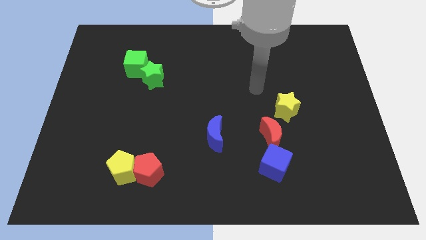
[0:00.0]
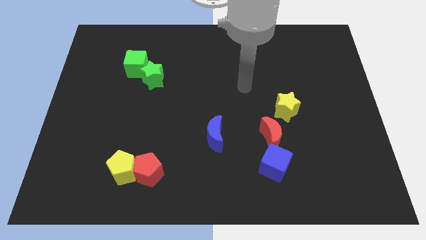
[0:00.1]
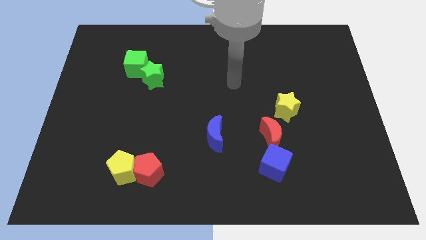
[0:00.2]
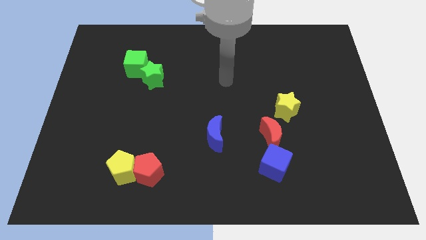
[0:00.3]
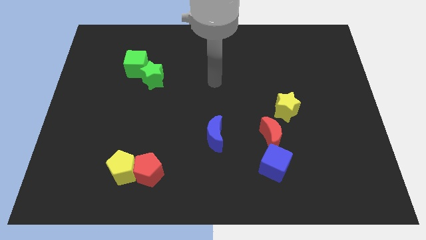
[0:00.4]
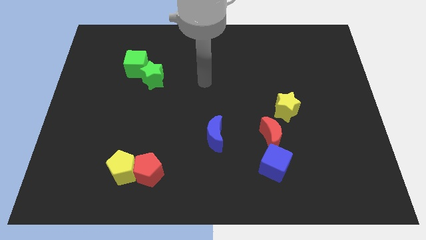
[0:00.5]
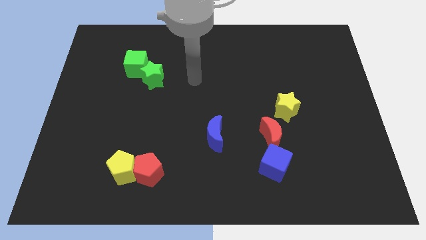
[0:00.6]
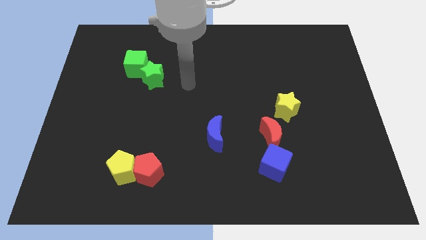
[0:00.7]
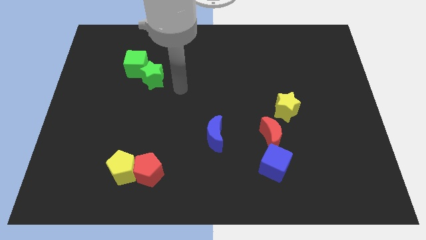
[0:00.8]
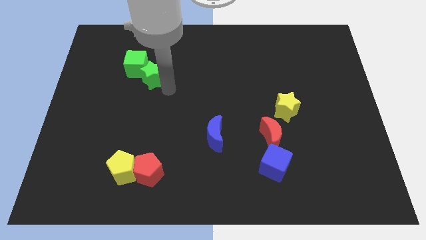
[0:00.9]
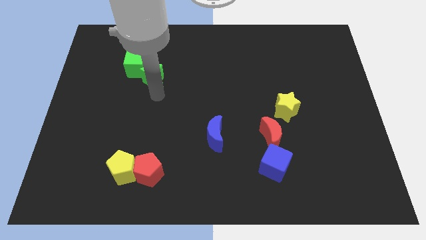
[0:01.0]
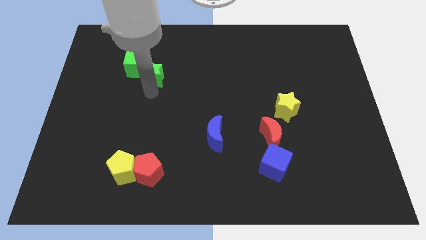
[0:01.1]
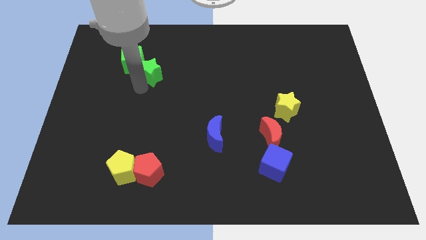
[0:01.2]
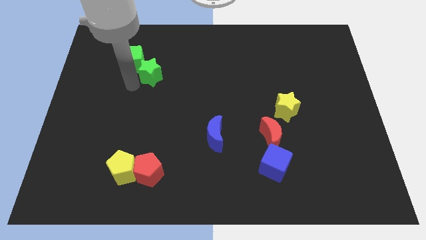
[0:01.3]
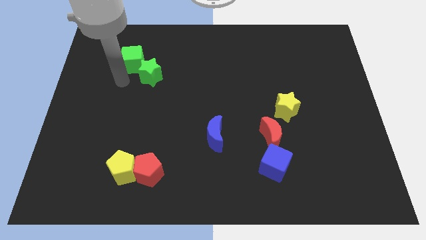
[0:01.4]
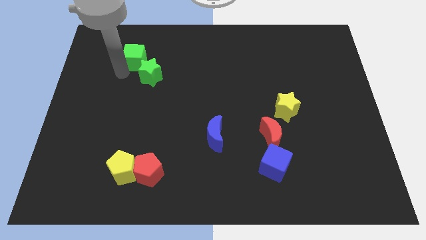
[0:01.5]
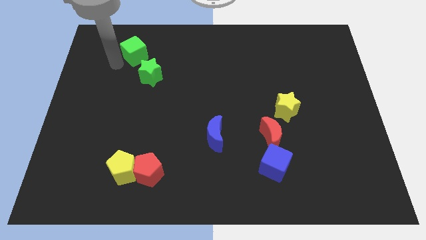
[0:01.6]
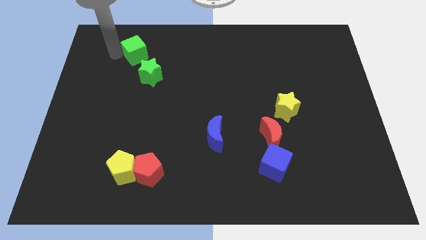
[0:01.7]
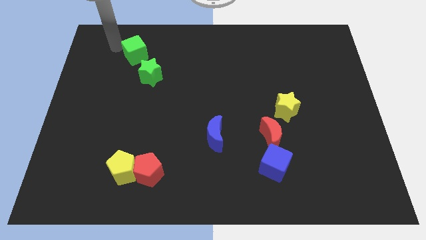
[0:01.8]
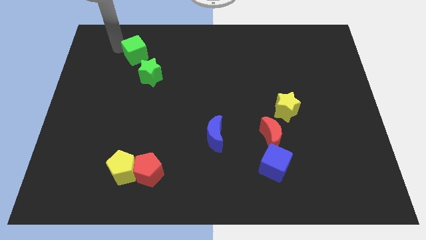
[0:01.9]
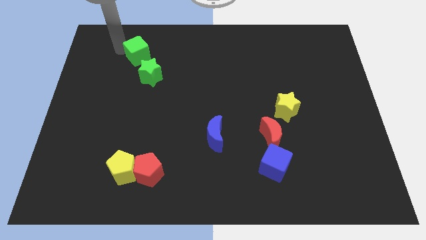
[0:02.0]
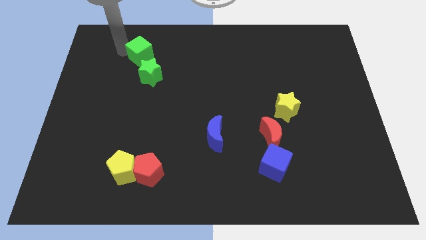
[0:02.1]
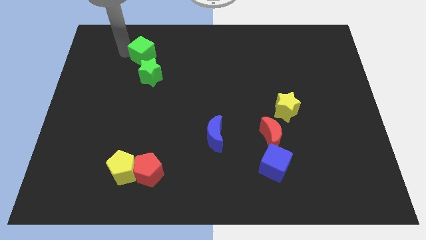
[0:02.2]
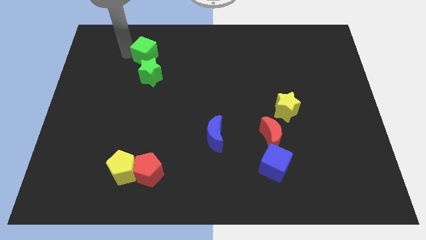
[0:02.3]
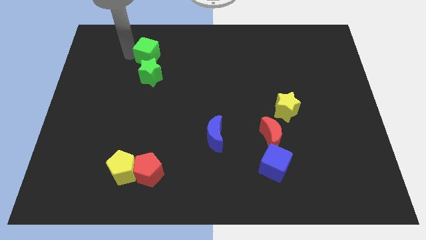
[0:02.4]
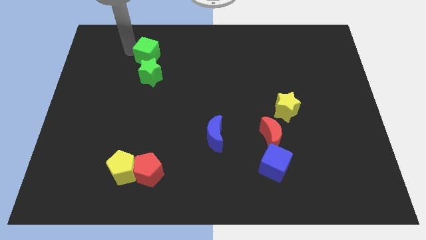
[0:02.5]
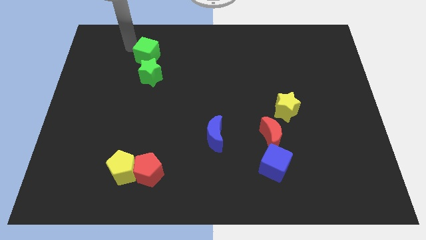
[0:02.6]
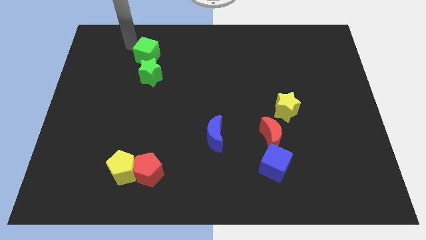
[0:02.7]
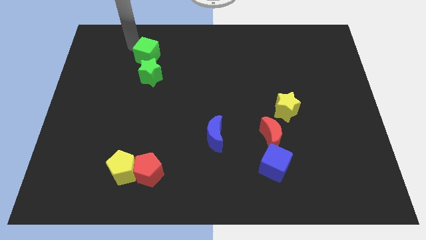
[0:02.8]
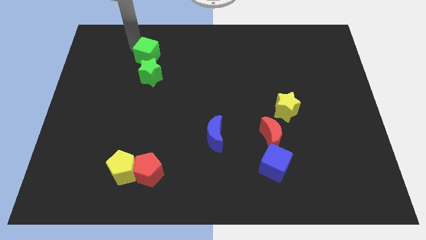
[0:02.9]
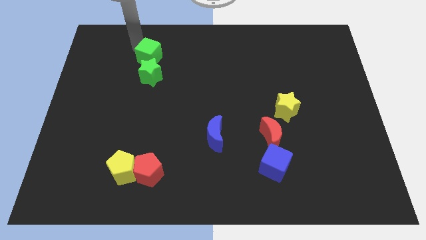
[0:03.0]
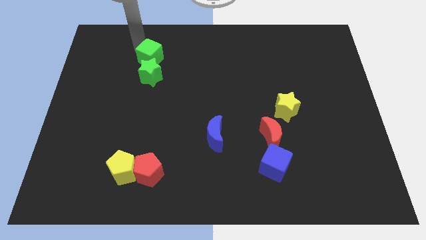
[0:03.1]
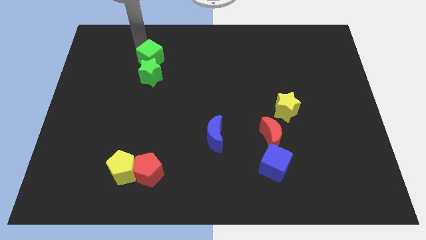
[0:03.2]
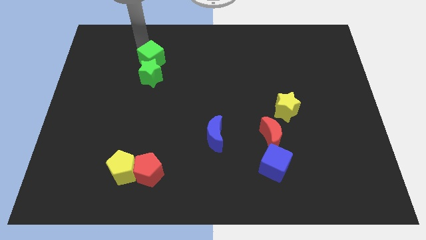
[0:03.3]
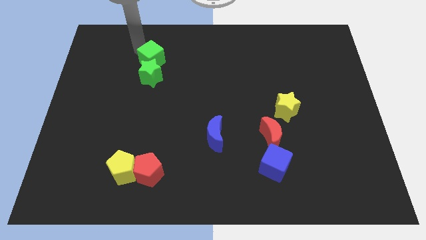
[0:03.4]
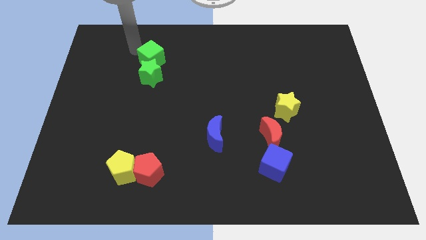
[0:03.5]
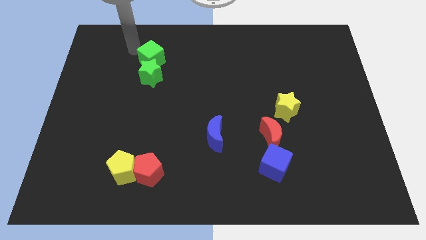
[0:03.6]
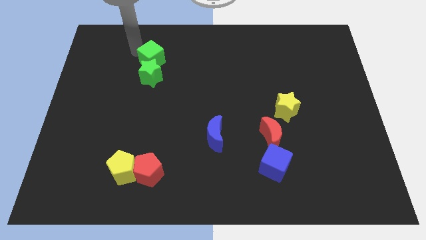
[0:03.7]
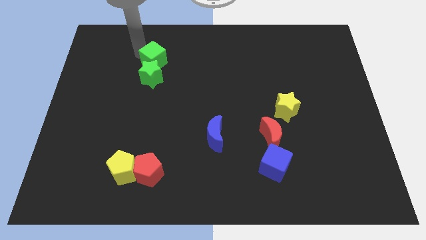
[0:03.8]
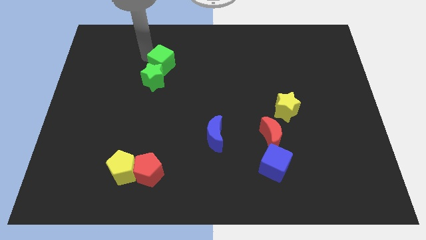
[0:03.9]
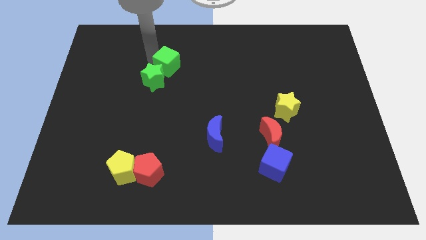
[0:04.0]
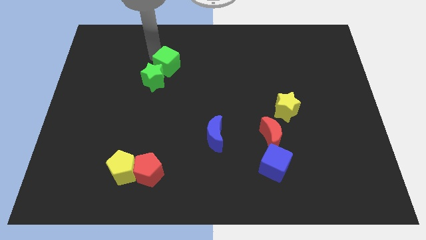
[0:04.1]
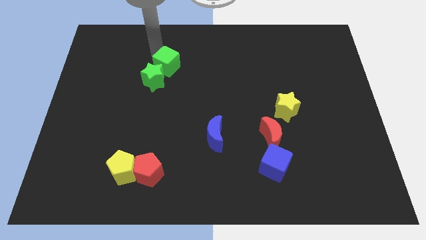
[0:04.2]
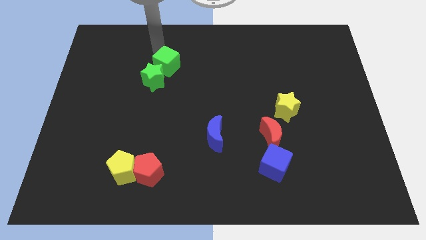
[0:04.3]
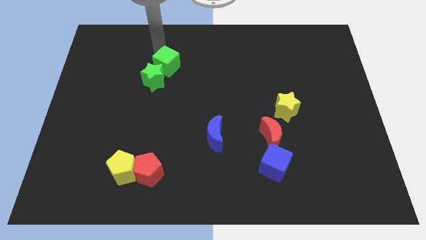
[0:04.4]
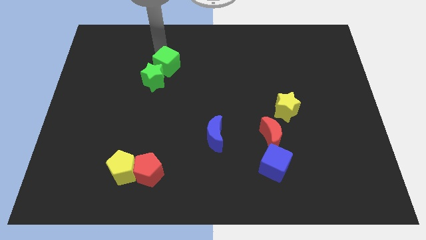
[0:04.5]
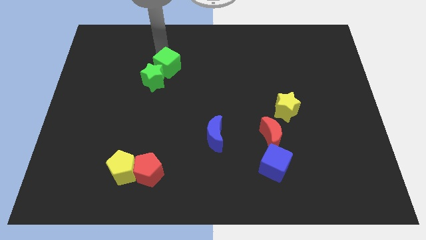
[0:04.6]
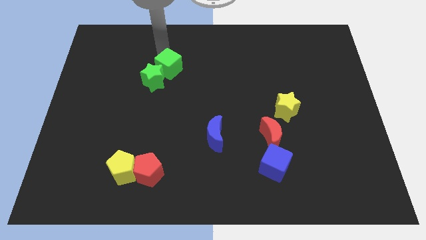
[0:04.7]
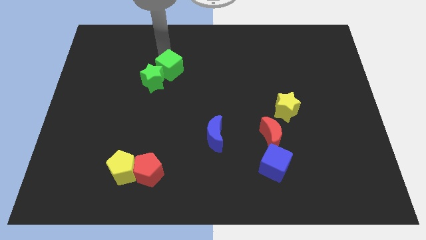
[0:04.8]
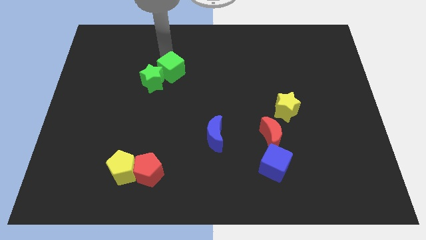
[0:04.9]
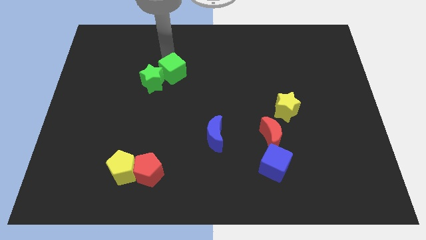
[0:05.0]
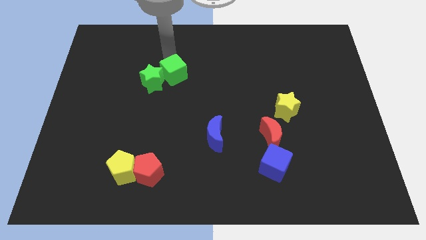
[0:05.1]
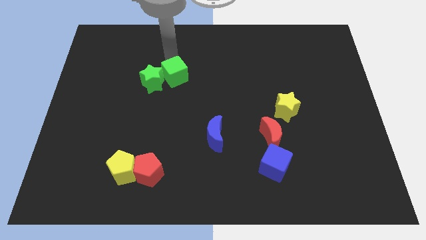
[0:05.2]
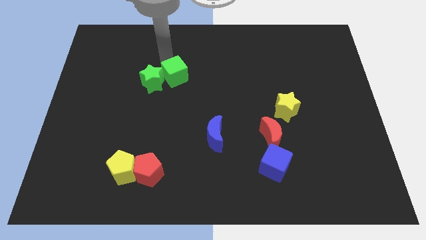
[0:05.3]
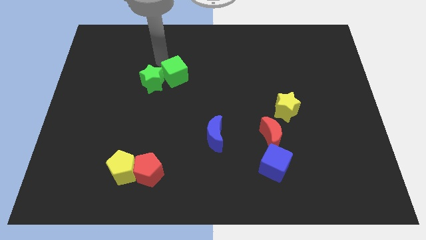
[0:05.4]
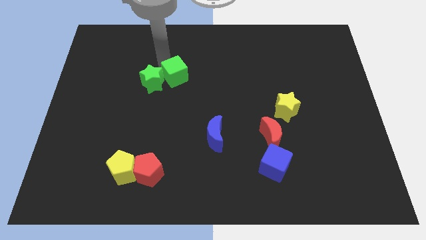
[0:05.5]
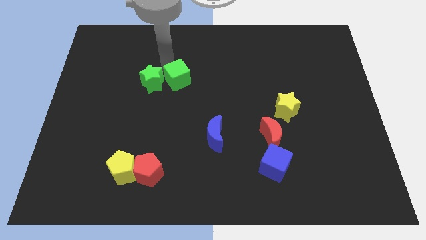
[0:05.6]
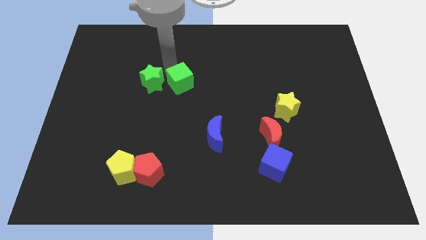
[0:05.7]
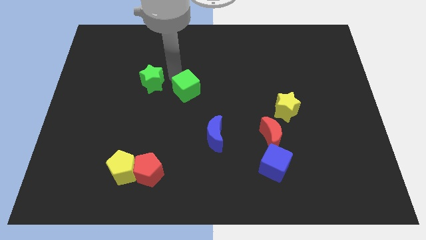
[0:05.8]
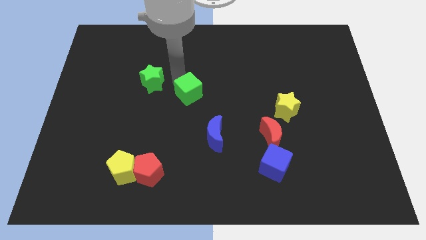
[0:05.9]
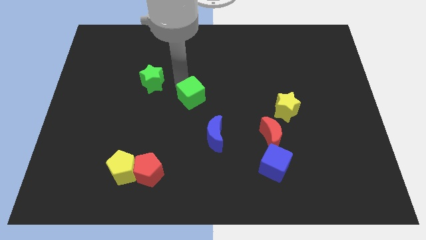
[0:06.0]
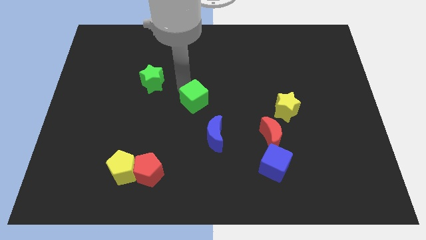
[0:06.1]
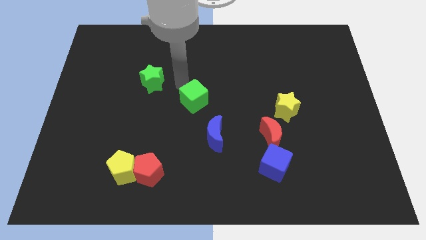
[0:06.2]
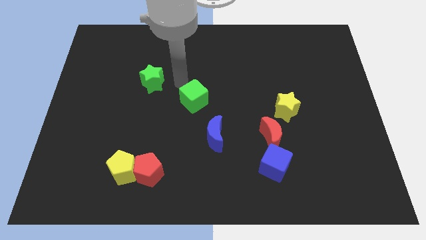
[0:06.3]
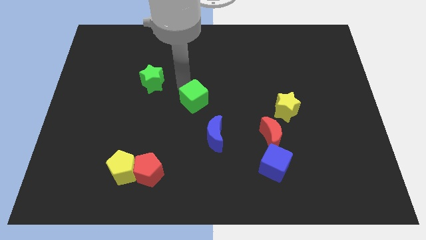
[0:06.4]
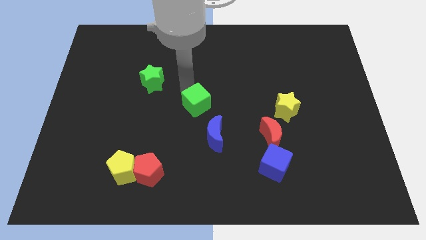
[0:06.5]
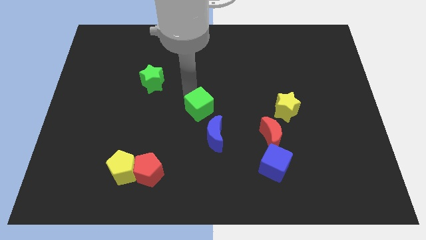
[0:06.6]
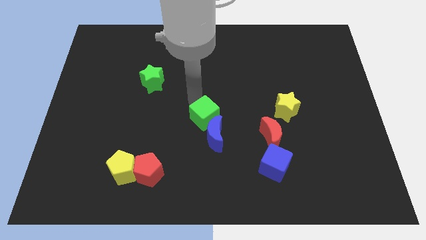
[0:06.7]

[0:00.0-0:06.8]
move the green cube to the blue moon
